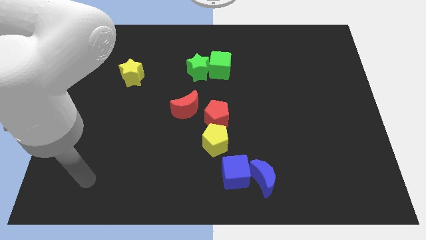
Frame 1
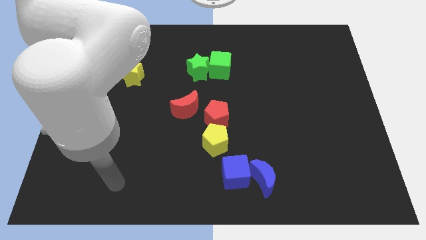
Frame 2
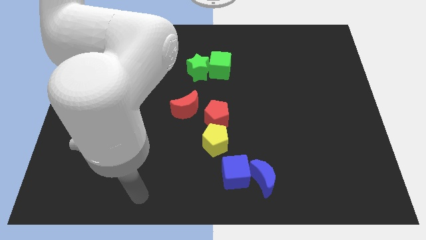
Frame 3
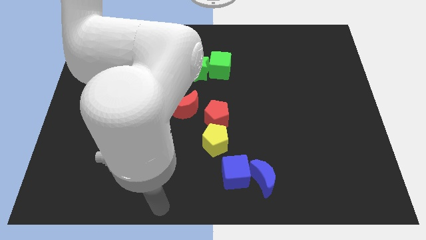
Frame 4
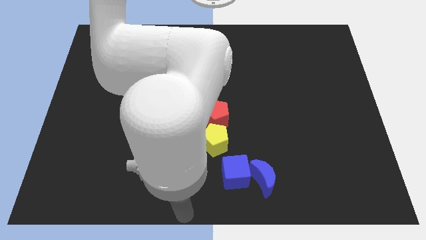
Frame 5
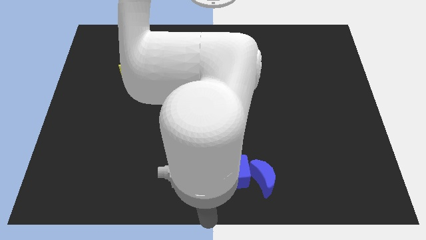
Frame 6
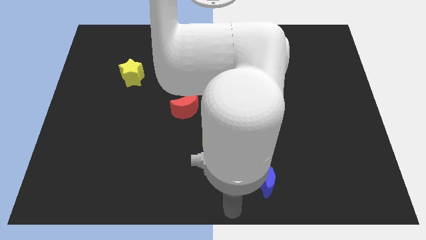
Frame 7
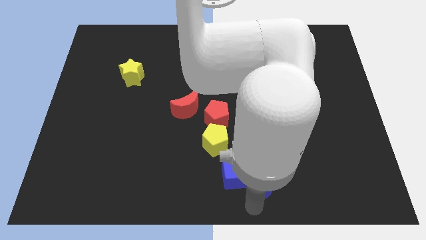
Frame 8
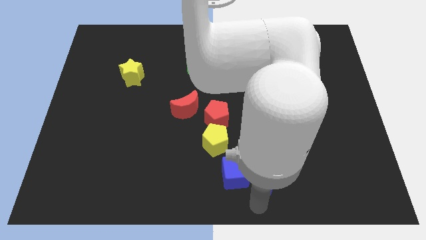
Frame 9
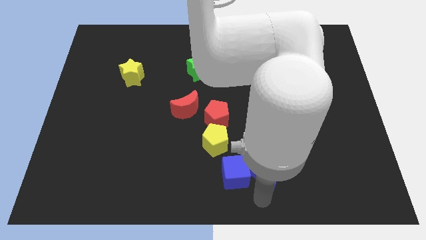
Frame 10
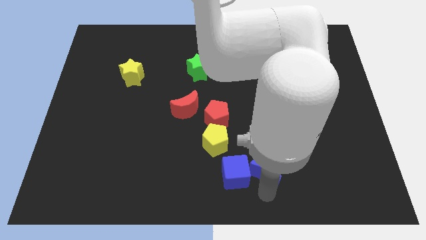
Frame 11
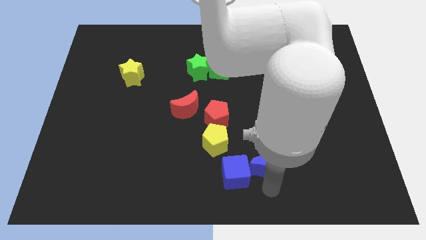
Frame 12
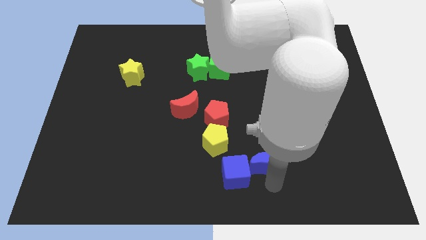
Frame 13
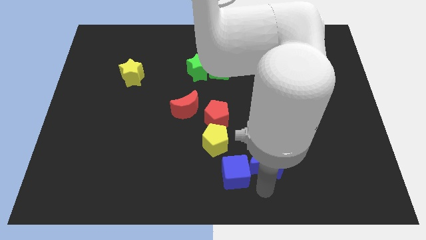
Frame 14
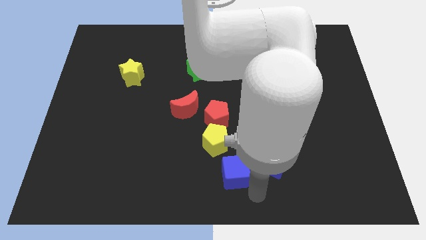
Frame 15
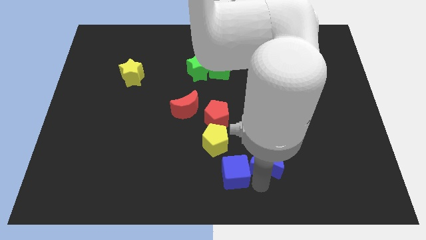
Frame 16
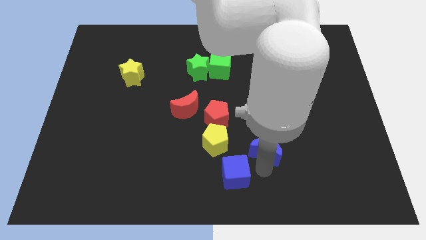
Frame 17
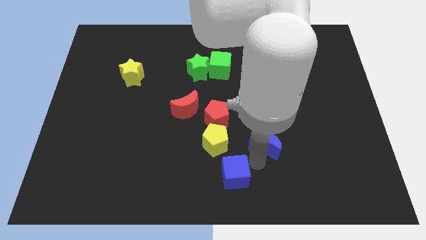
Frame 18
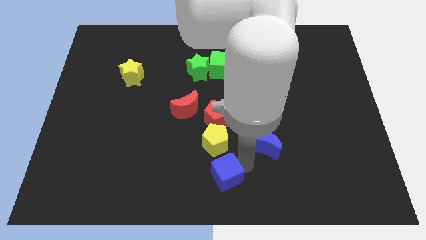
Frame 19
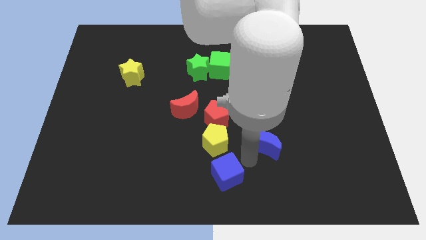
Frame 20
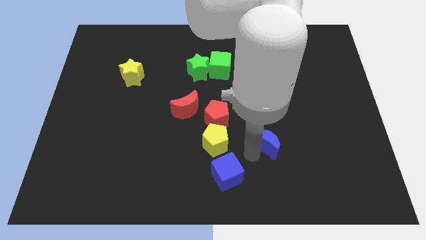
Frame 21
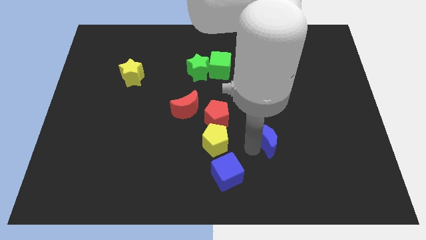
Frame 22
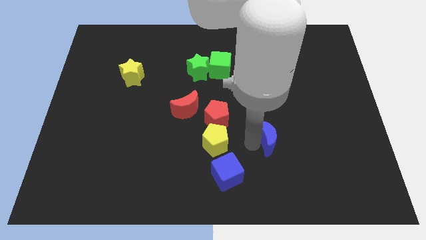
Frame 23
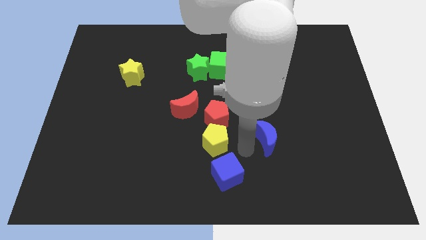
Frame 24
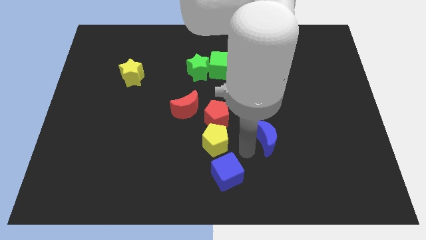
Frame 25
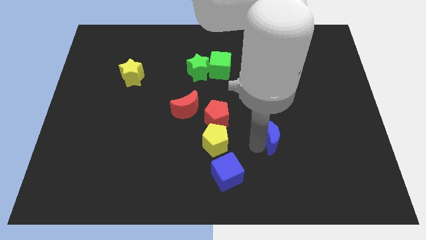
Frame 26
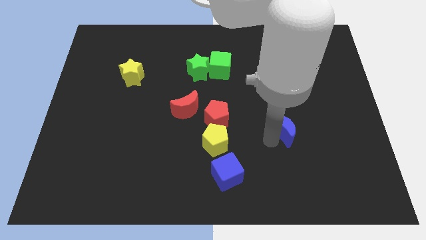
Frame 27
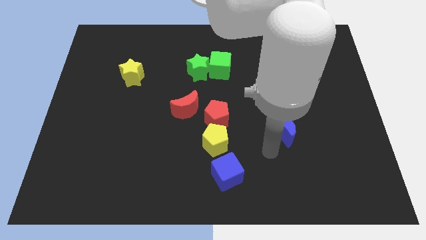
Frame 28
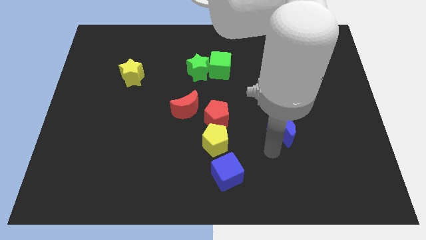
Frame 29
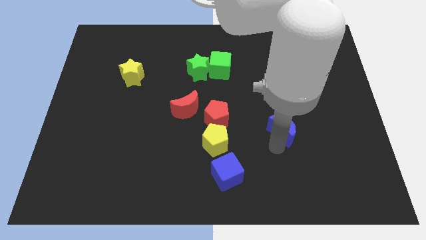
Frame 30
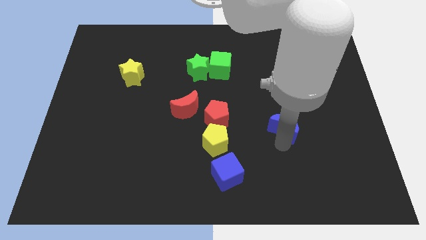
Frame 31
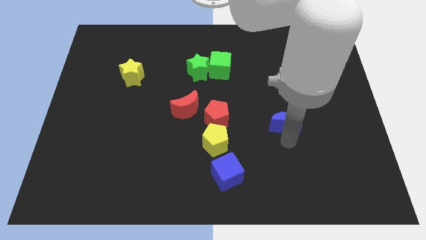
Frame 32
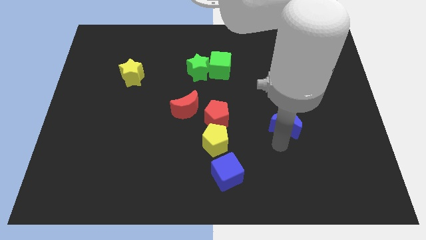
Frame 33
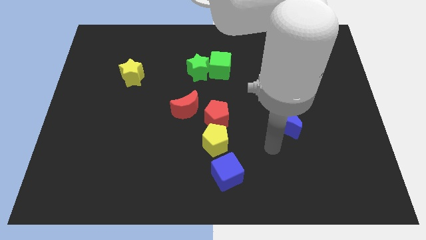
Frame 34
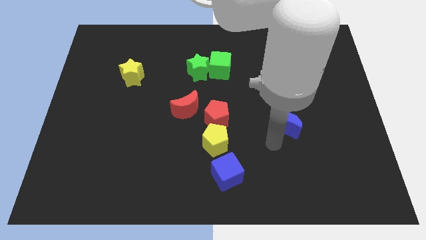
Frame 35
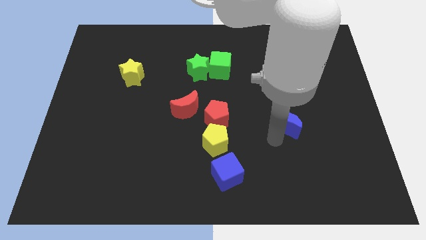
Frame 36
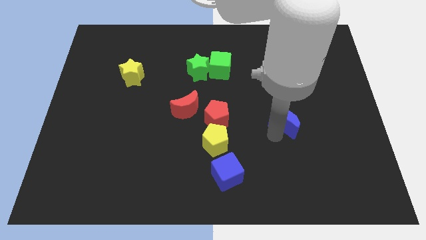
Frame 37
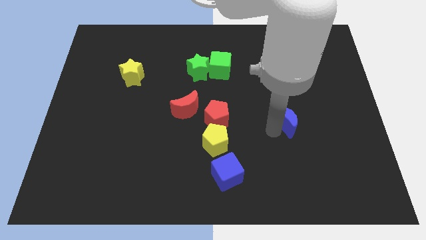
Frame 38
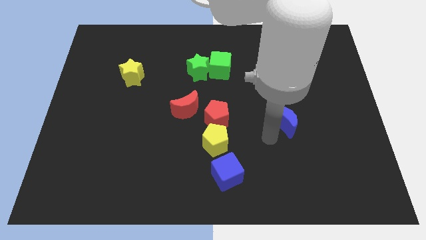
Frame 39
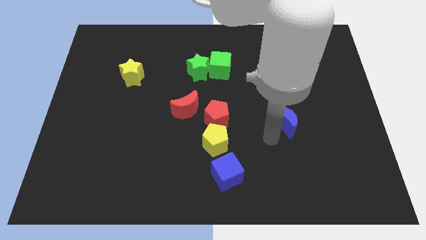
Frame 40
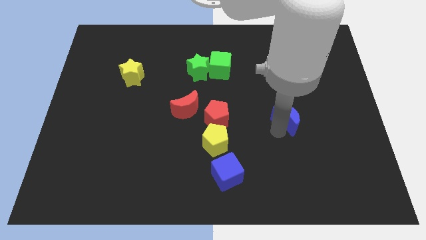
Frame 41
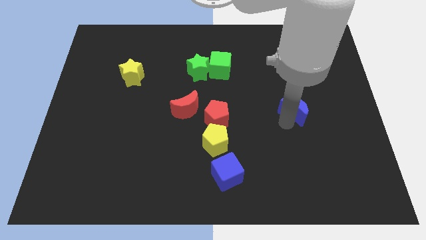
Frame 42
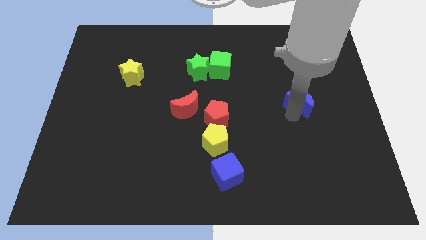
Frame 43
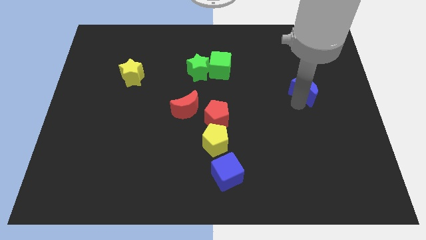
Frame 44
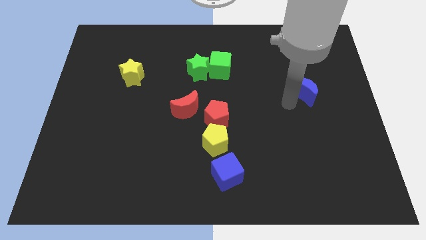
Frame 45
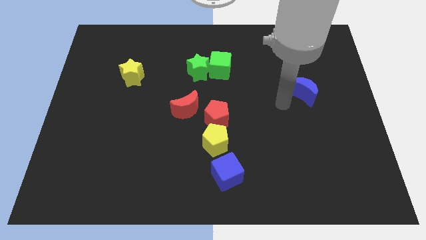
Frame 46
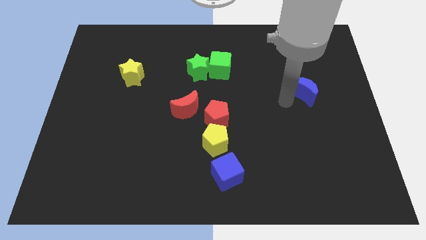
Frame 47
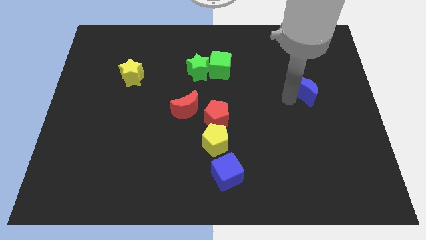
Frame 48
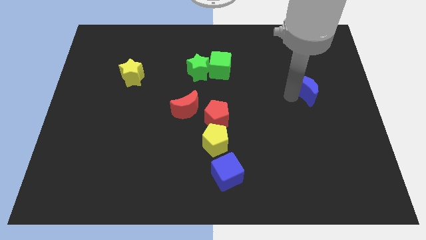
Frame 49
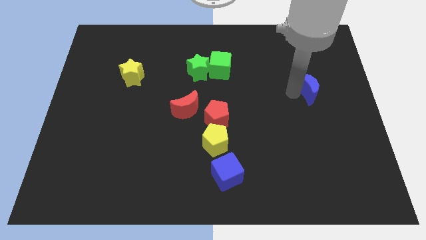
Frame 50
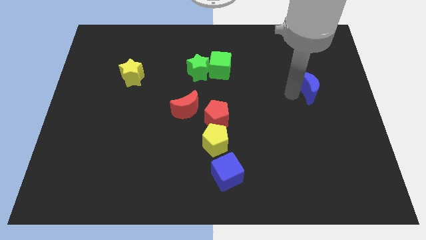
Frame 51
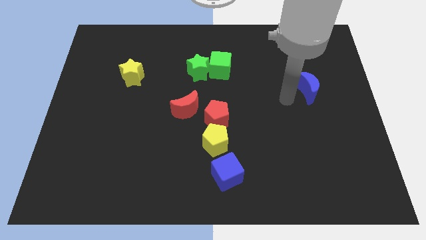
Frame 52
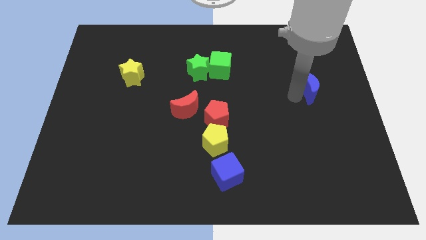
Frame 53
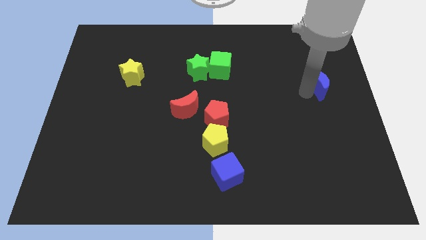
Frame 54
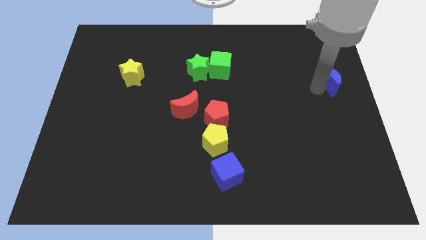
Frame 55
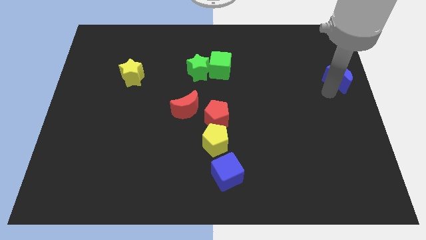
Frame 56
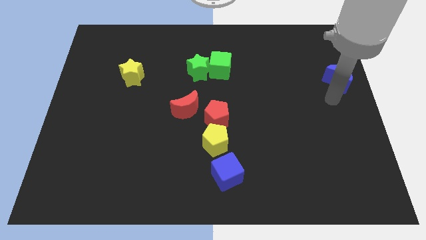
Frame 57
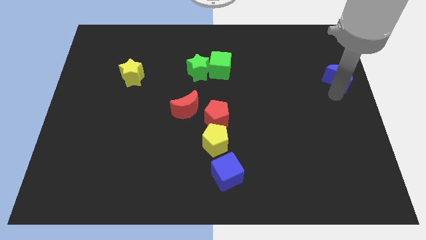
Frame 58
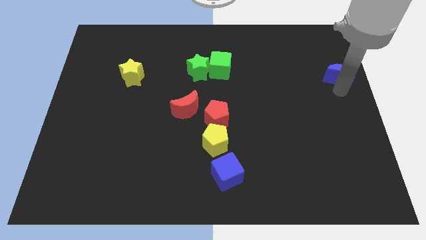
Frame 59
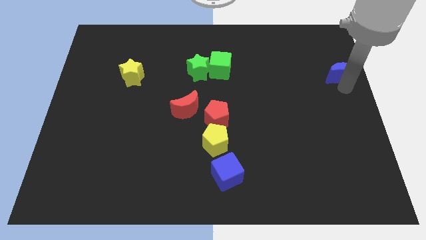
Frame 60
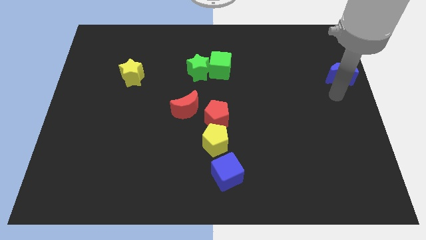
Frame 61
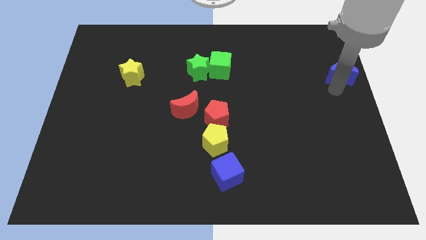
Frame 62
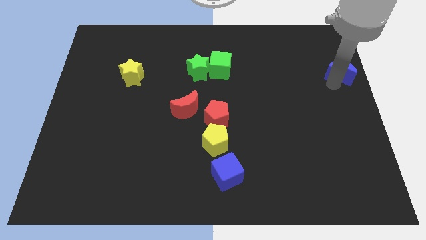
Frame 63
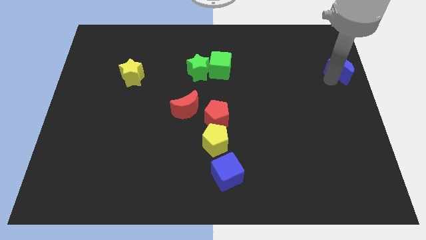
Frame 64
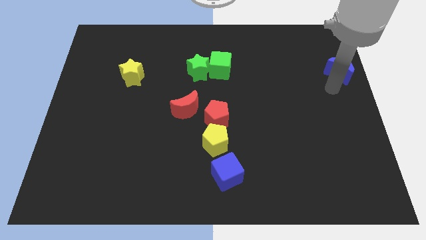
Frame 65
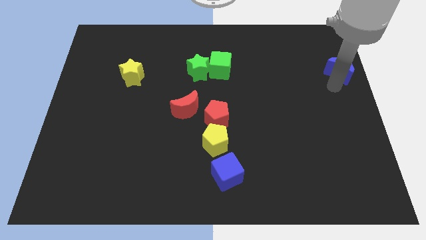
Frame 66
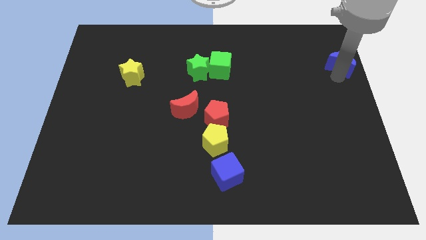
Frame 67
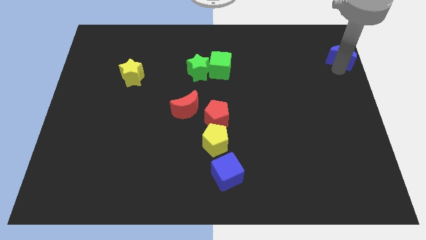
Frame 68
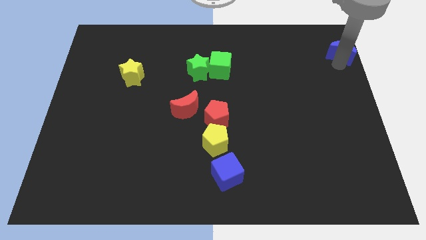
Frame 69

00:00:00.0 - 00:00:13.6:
push the blue moon to the upper right corner
